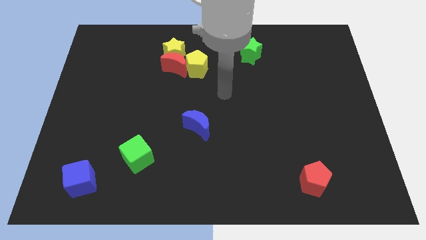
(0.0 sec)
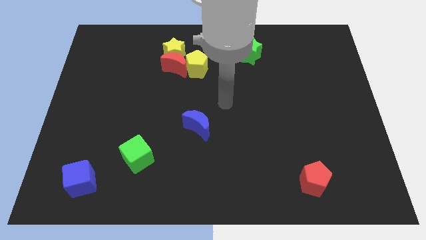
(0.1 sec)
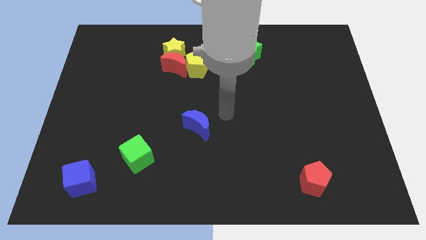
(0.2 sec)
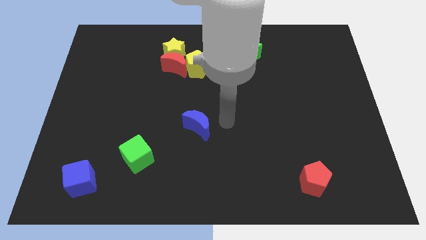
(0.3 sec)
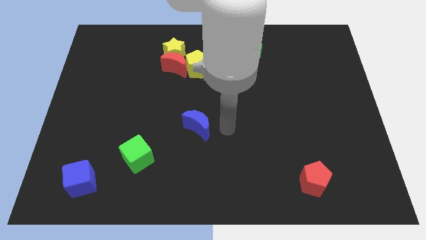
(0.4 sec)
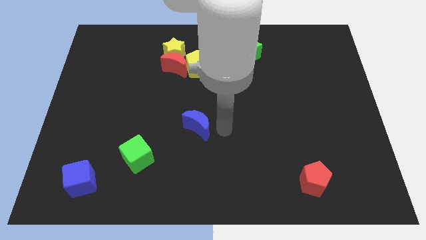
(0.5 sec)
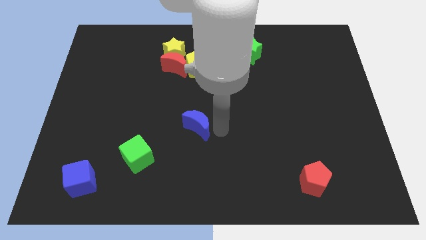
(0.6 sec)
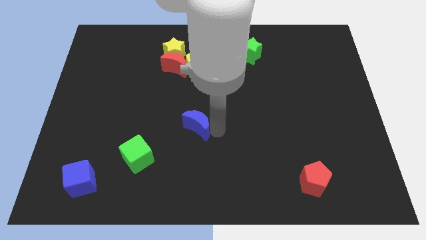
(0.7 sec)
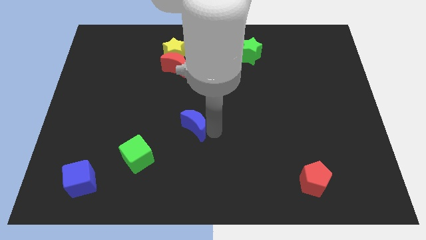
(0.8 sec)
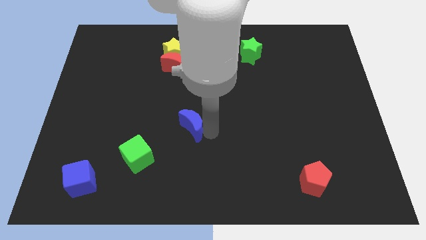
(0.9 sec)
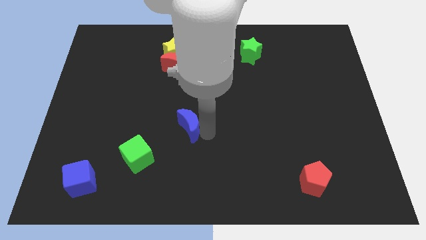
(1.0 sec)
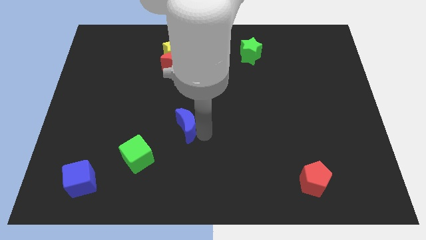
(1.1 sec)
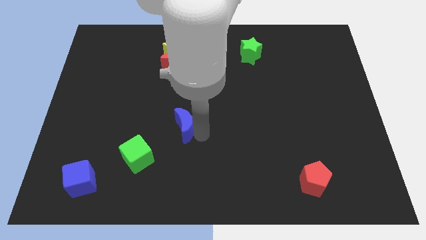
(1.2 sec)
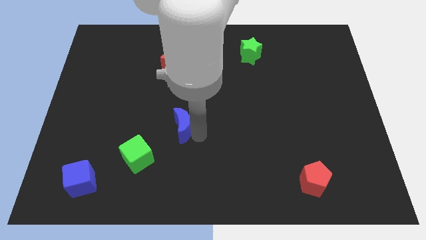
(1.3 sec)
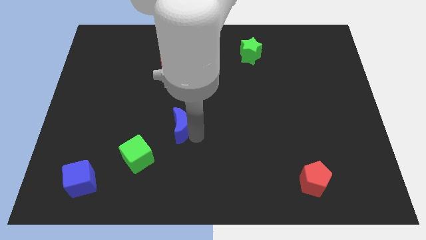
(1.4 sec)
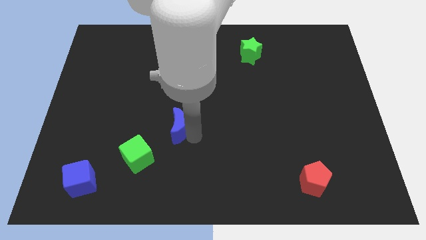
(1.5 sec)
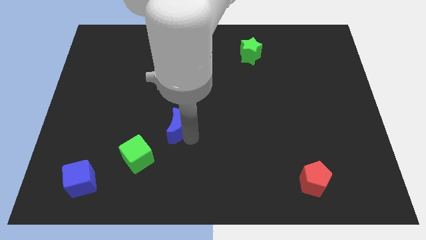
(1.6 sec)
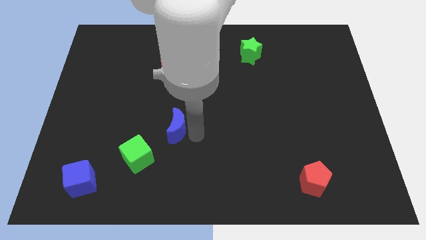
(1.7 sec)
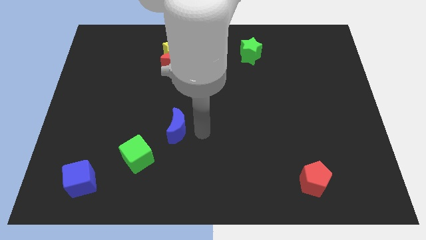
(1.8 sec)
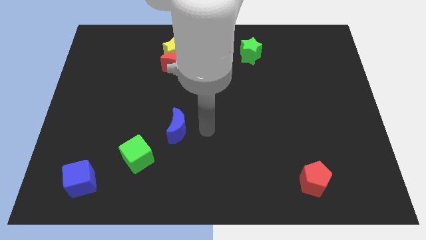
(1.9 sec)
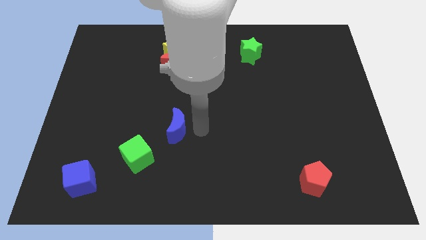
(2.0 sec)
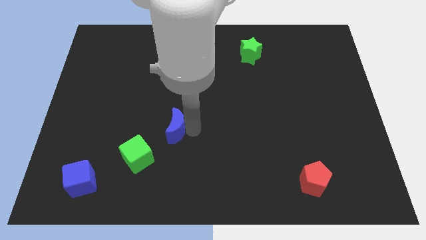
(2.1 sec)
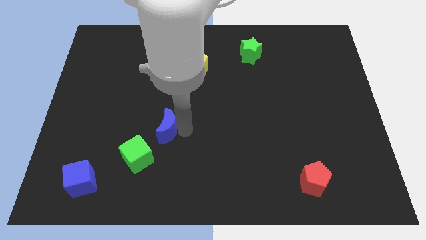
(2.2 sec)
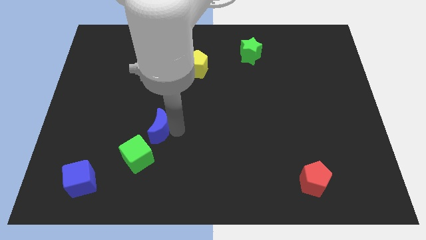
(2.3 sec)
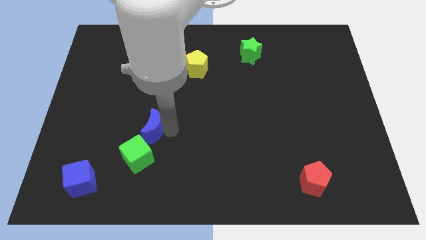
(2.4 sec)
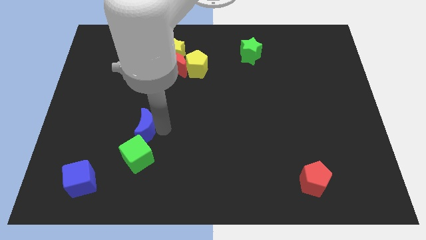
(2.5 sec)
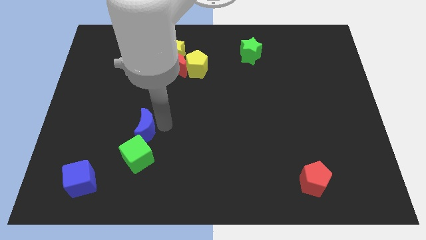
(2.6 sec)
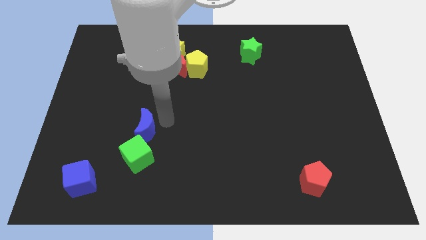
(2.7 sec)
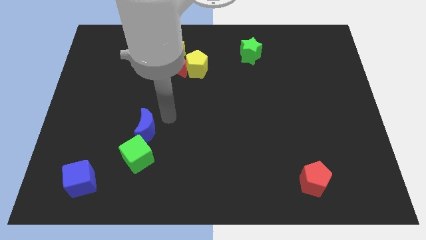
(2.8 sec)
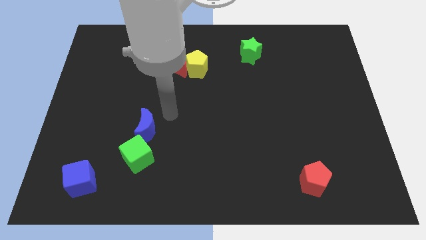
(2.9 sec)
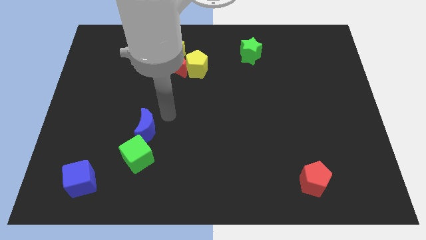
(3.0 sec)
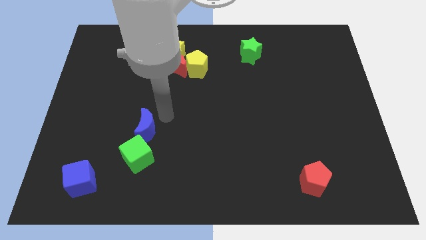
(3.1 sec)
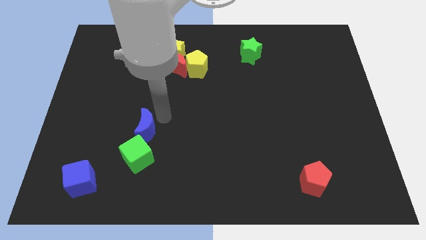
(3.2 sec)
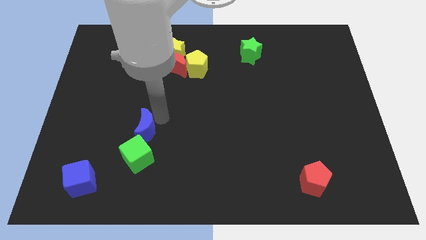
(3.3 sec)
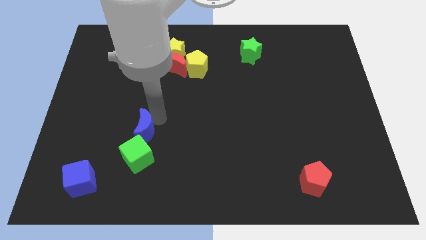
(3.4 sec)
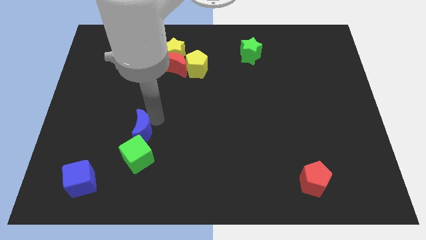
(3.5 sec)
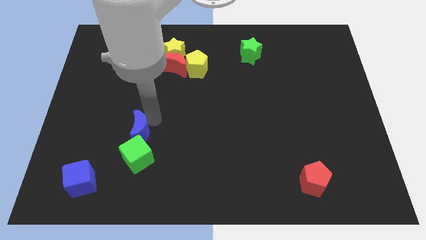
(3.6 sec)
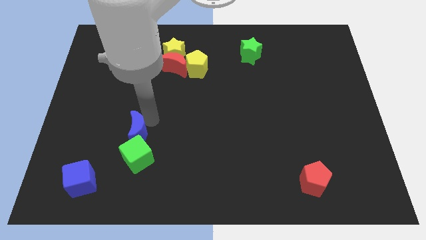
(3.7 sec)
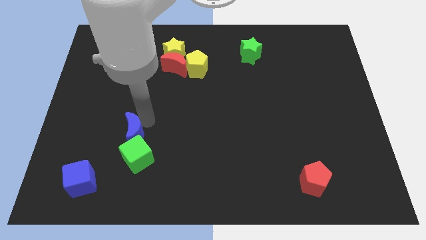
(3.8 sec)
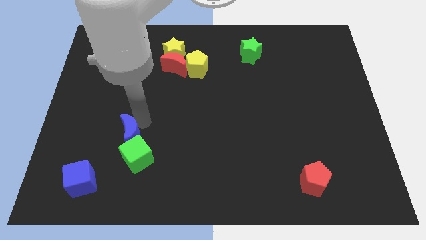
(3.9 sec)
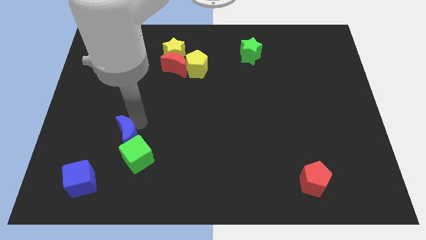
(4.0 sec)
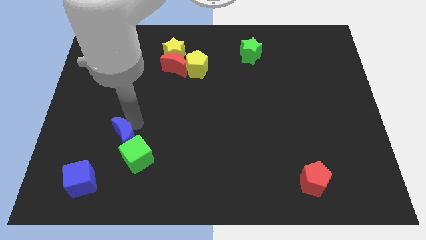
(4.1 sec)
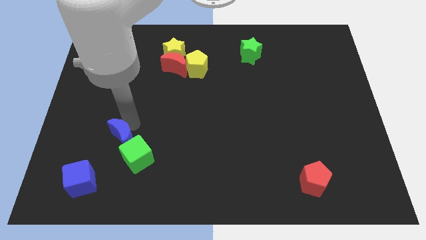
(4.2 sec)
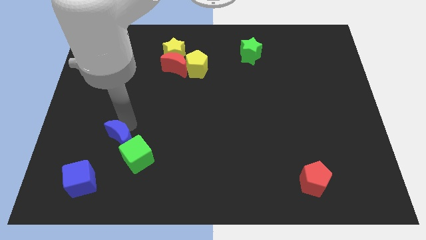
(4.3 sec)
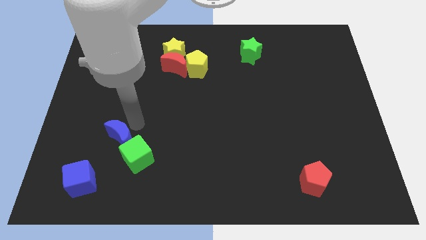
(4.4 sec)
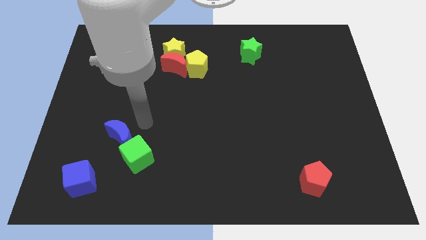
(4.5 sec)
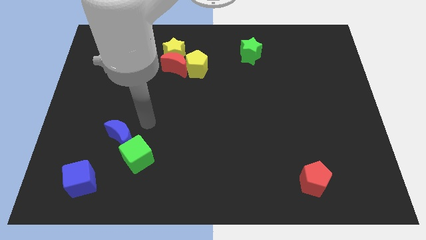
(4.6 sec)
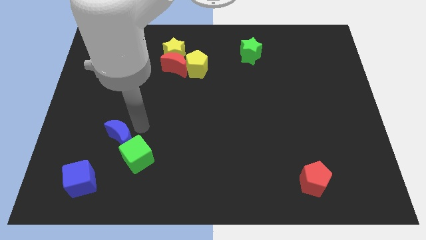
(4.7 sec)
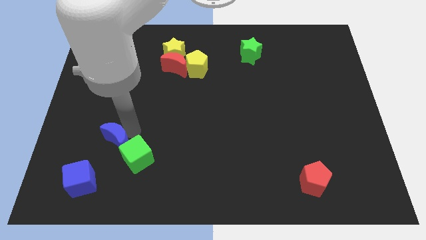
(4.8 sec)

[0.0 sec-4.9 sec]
move the blue moon just left of the green cube

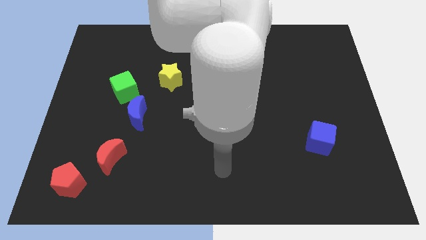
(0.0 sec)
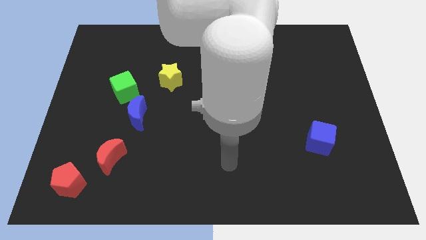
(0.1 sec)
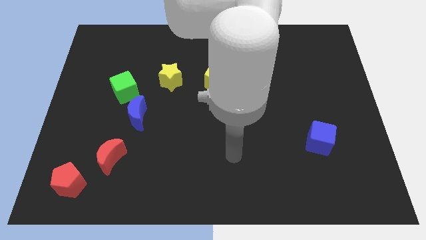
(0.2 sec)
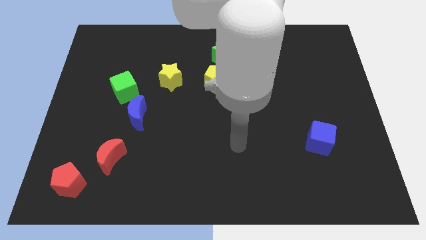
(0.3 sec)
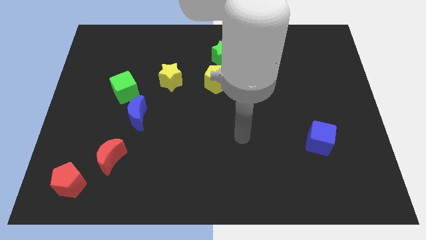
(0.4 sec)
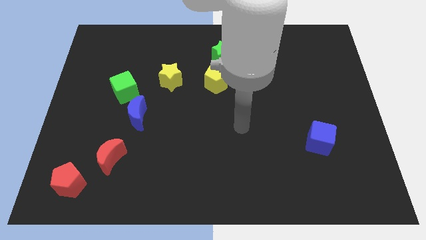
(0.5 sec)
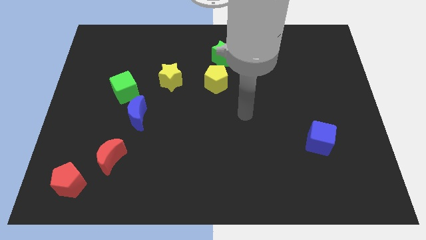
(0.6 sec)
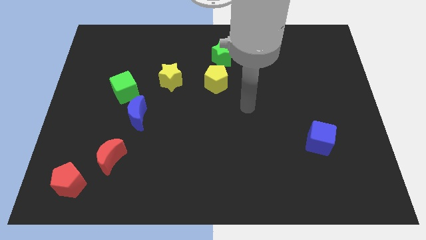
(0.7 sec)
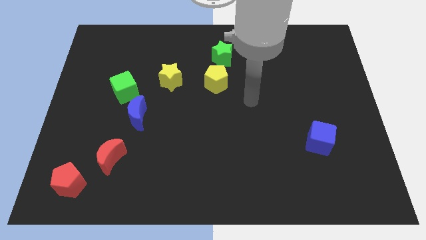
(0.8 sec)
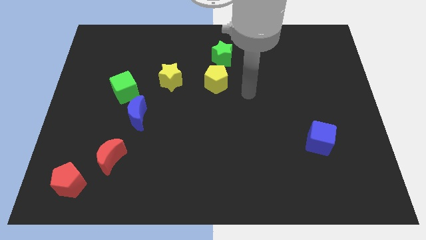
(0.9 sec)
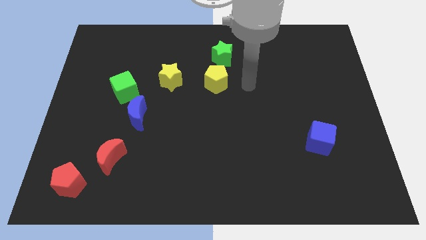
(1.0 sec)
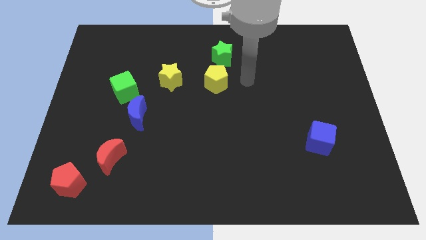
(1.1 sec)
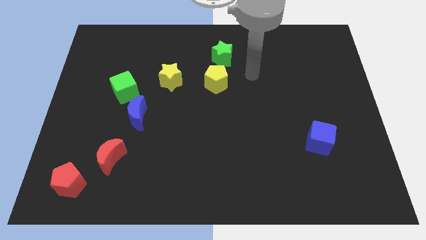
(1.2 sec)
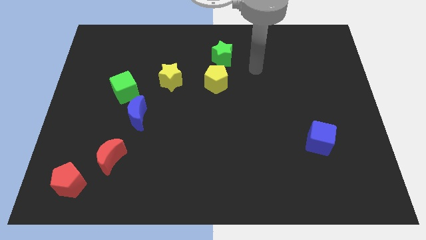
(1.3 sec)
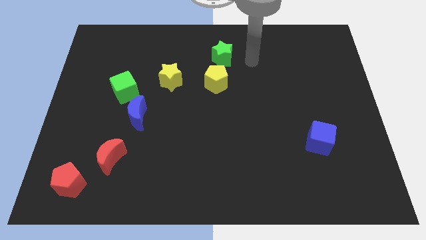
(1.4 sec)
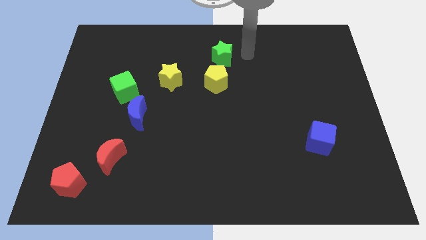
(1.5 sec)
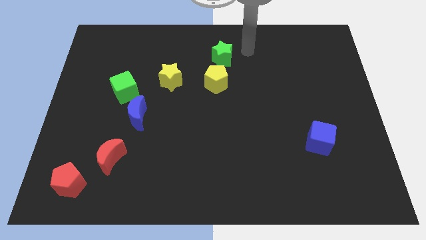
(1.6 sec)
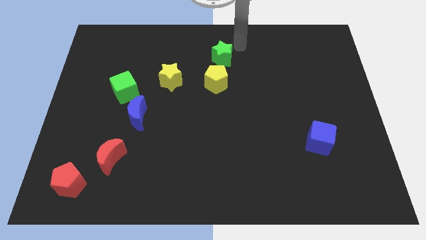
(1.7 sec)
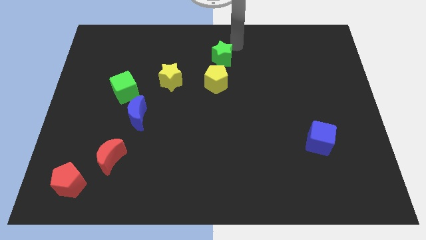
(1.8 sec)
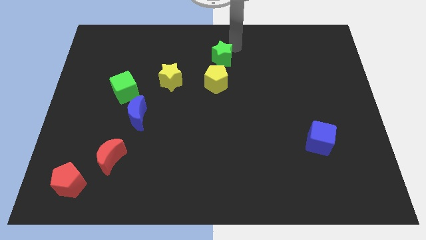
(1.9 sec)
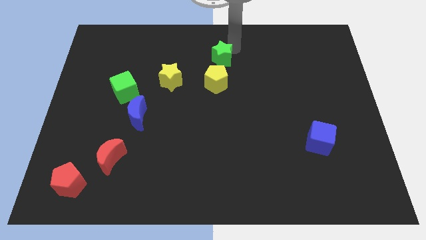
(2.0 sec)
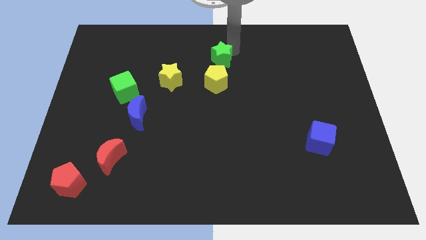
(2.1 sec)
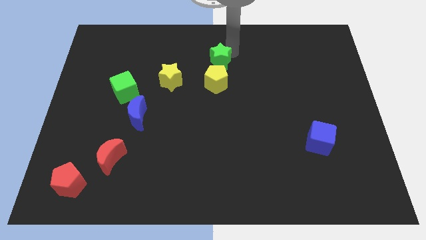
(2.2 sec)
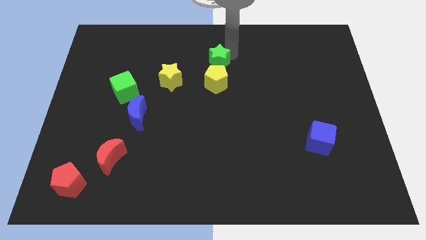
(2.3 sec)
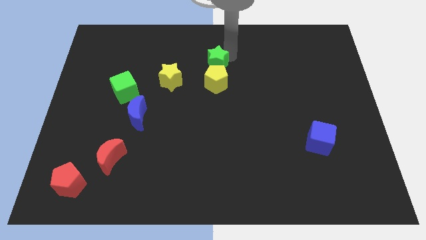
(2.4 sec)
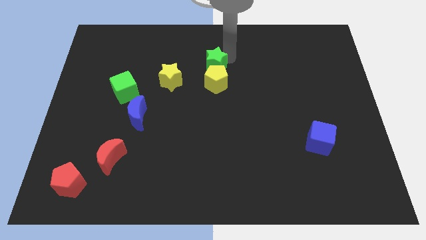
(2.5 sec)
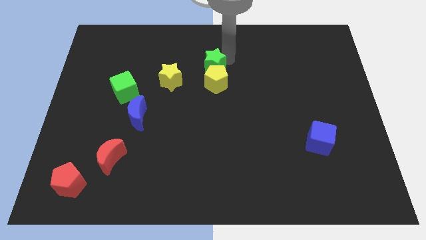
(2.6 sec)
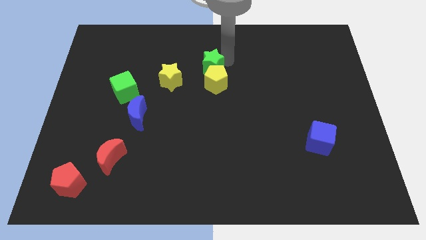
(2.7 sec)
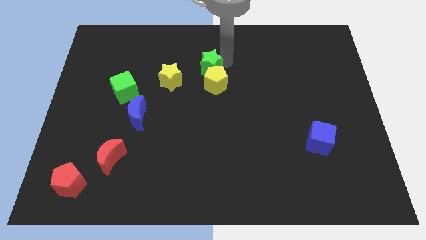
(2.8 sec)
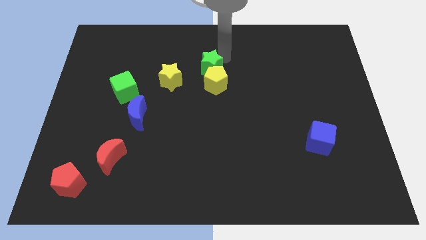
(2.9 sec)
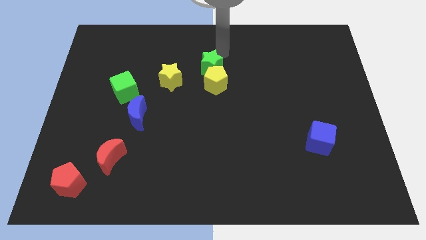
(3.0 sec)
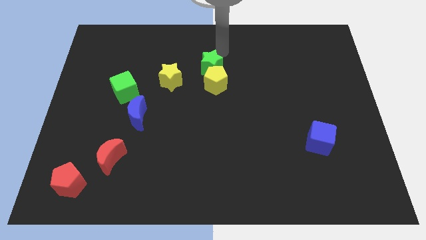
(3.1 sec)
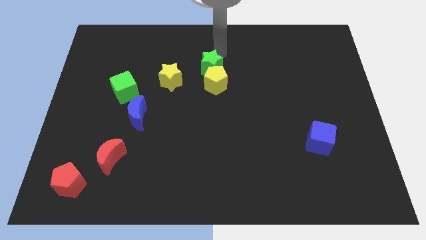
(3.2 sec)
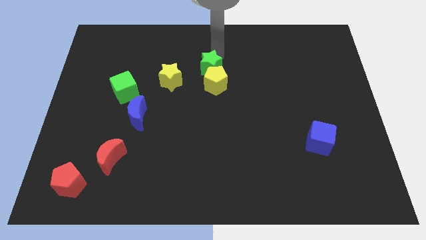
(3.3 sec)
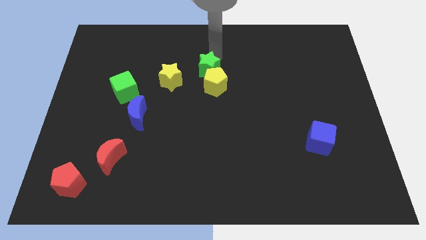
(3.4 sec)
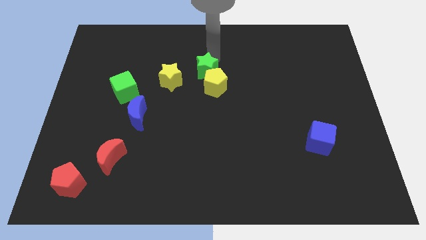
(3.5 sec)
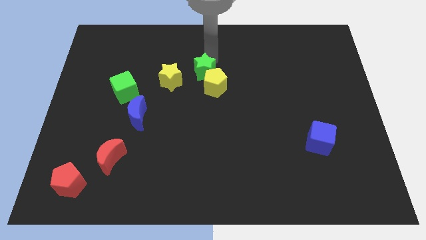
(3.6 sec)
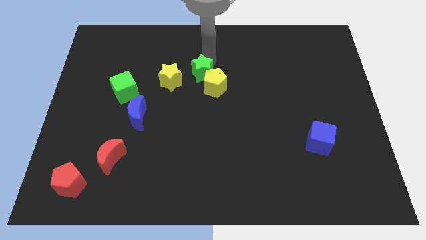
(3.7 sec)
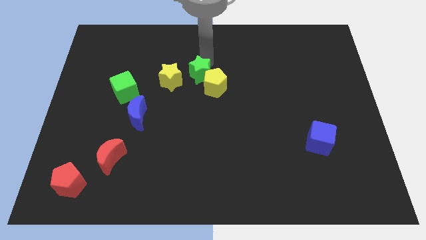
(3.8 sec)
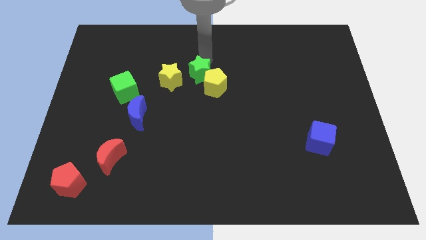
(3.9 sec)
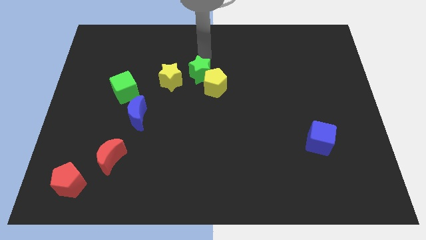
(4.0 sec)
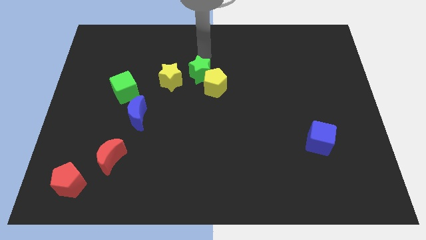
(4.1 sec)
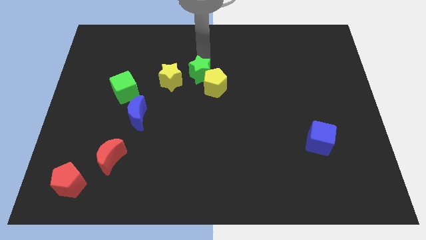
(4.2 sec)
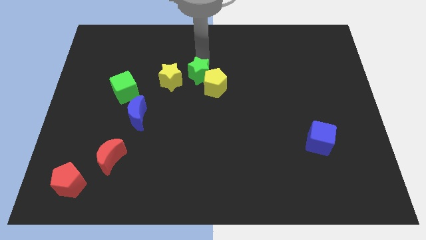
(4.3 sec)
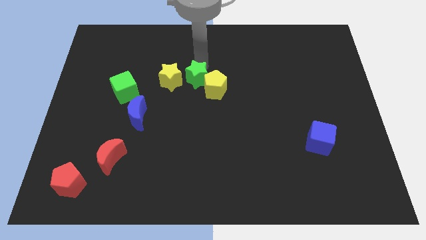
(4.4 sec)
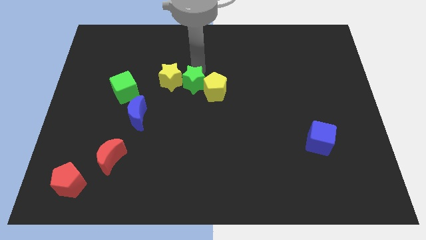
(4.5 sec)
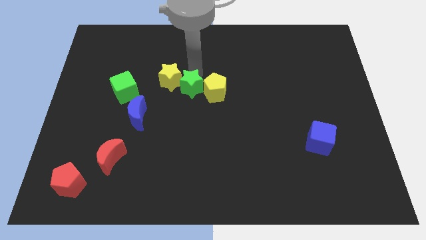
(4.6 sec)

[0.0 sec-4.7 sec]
move the green star to the right side of the green cube
